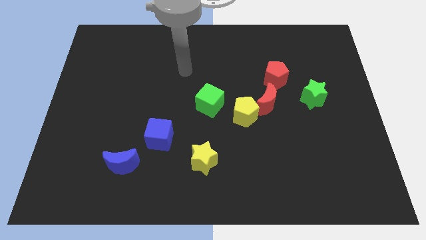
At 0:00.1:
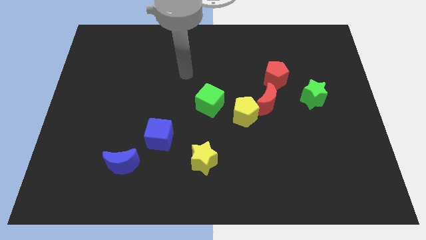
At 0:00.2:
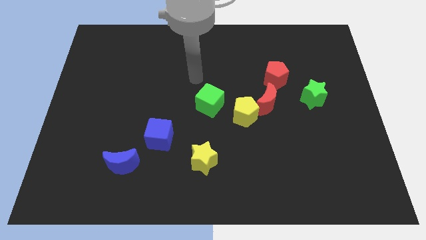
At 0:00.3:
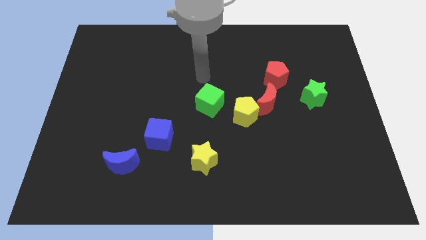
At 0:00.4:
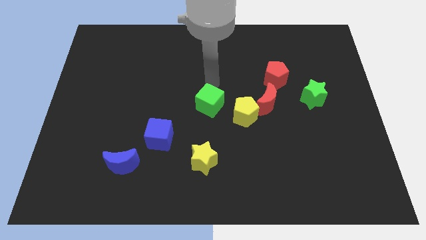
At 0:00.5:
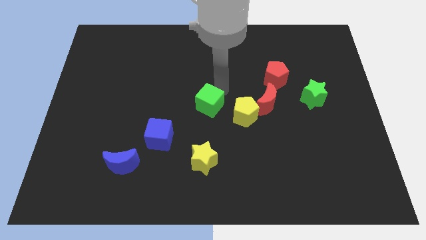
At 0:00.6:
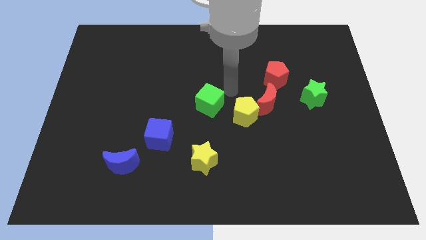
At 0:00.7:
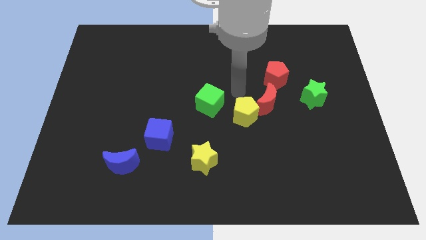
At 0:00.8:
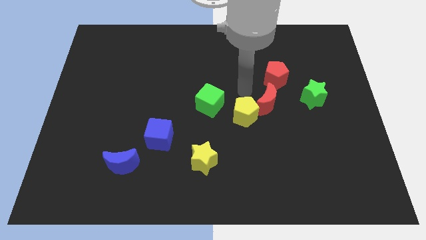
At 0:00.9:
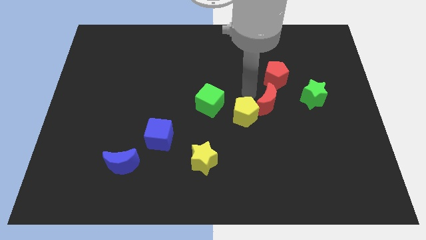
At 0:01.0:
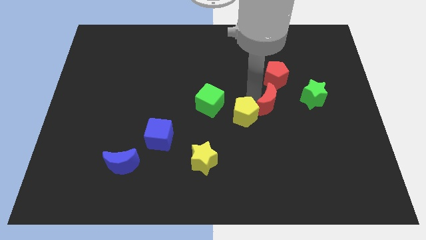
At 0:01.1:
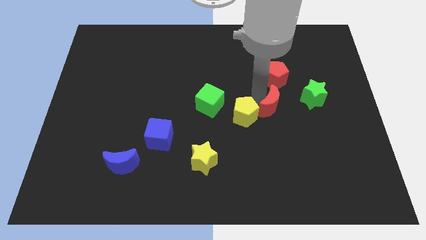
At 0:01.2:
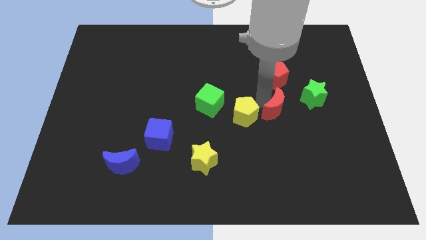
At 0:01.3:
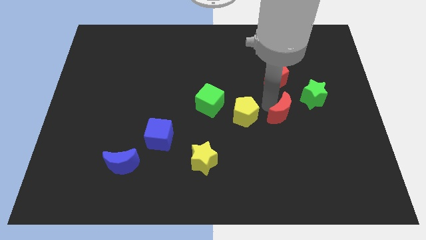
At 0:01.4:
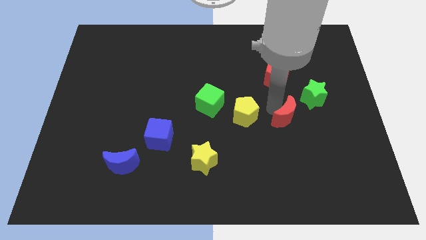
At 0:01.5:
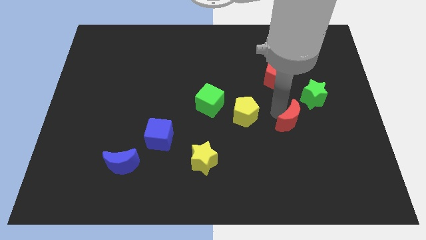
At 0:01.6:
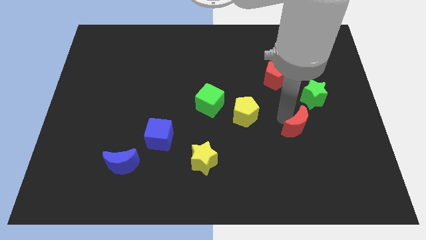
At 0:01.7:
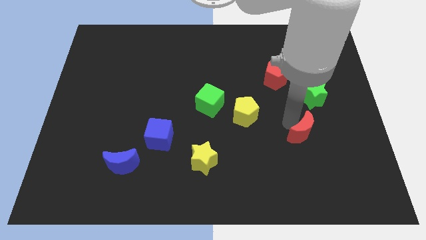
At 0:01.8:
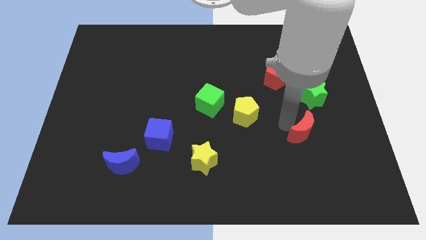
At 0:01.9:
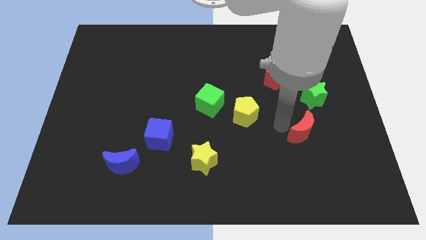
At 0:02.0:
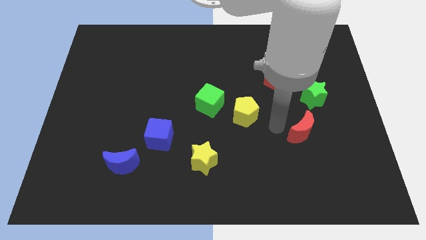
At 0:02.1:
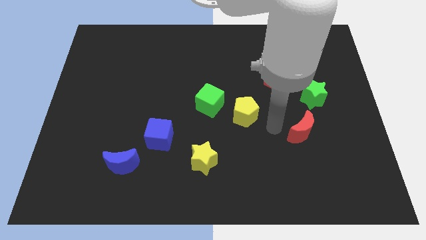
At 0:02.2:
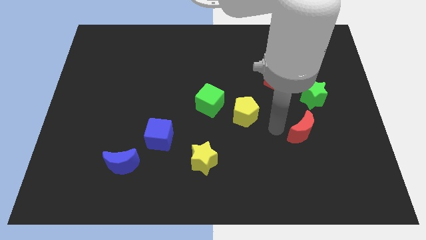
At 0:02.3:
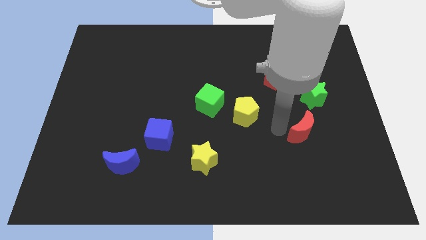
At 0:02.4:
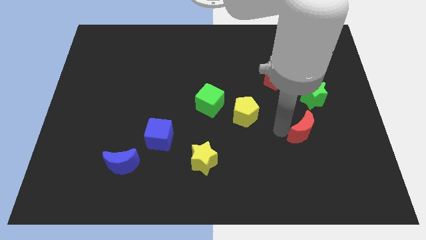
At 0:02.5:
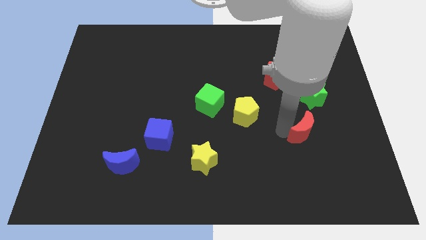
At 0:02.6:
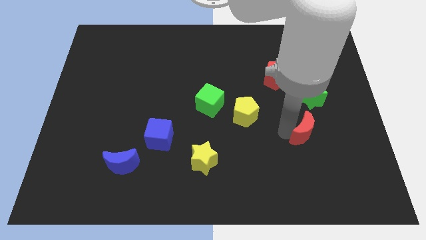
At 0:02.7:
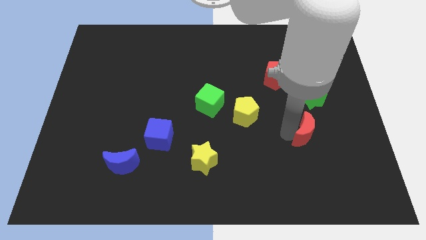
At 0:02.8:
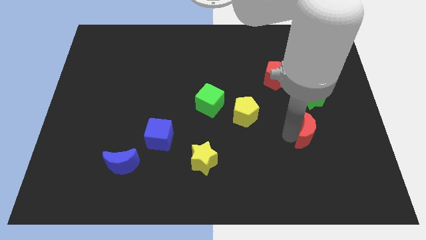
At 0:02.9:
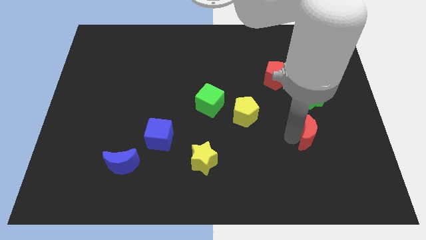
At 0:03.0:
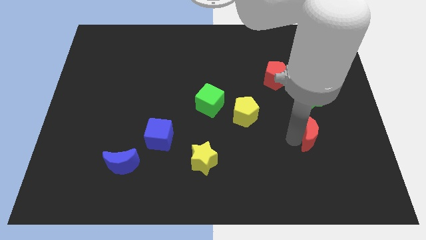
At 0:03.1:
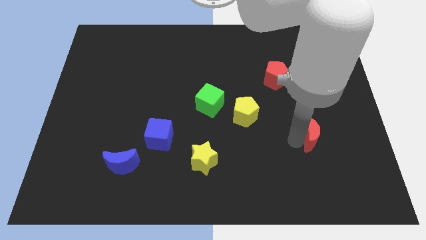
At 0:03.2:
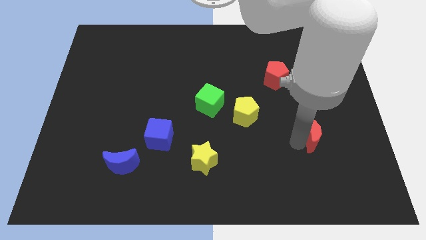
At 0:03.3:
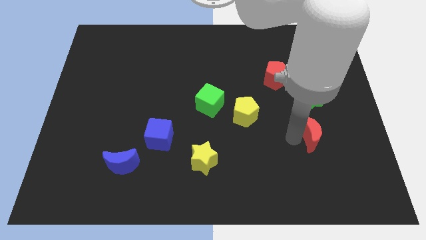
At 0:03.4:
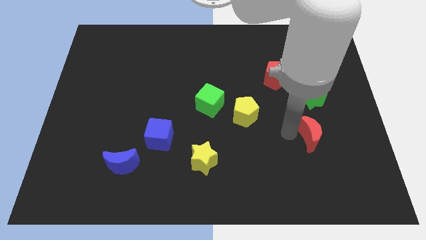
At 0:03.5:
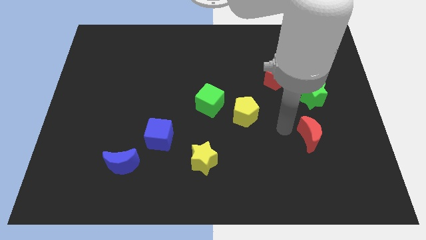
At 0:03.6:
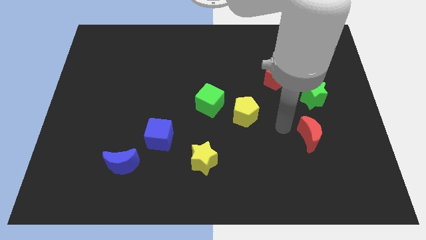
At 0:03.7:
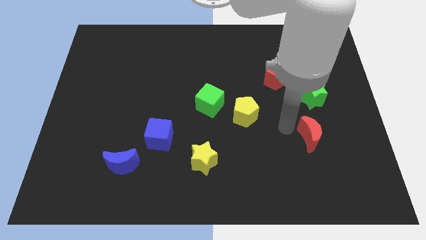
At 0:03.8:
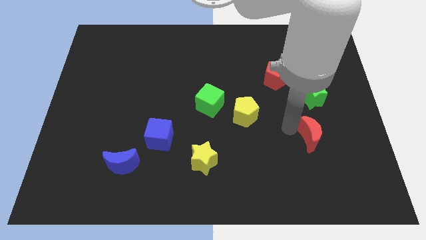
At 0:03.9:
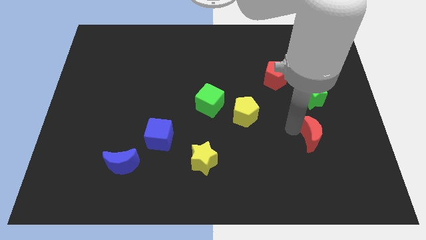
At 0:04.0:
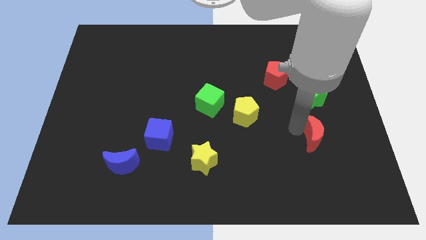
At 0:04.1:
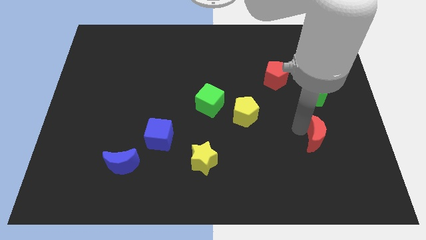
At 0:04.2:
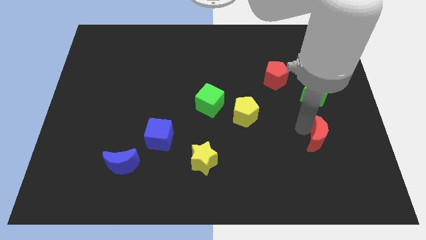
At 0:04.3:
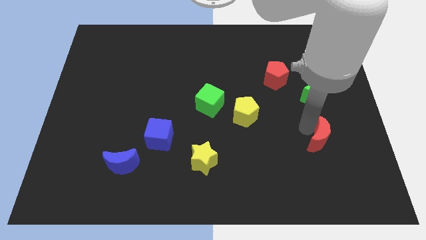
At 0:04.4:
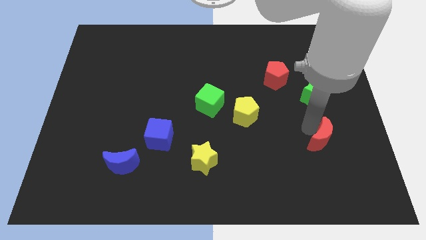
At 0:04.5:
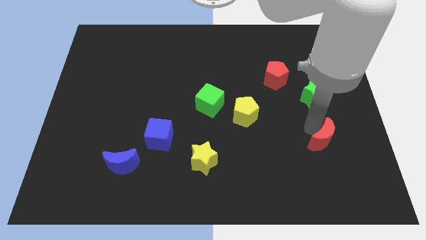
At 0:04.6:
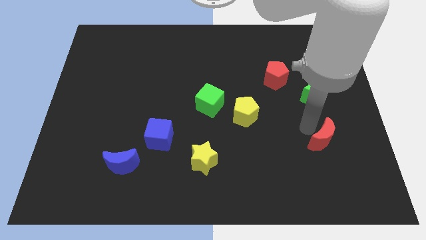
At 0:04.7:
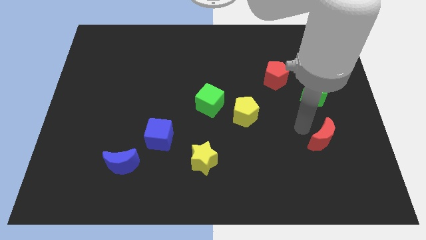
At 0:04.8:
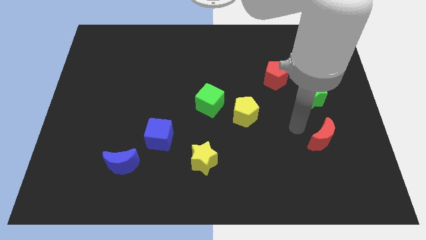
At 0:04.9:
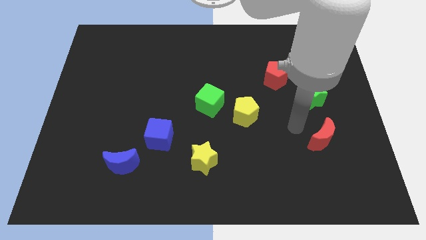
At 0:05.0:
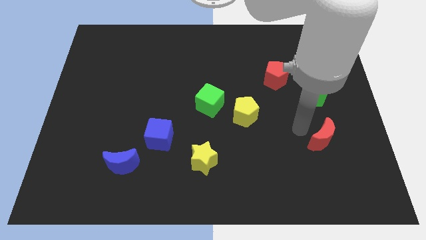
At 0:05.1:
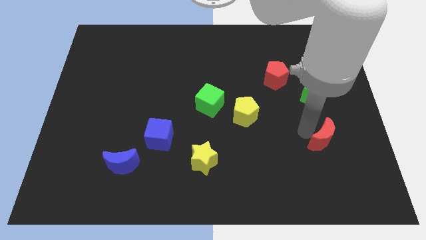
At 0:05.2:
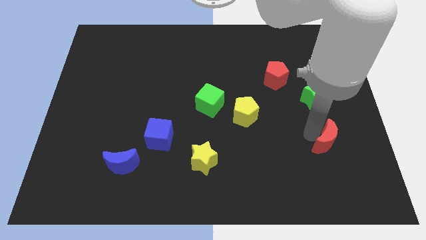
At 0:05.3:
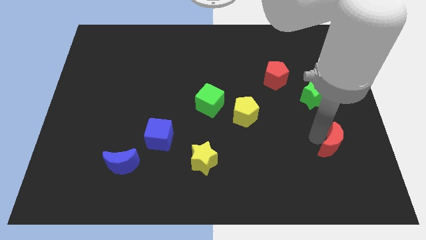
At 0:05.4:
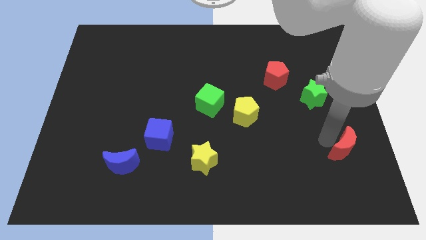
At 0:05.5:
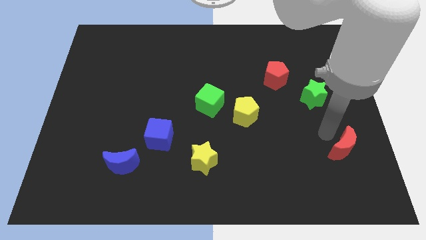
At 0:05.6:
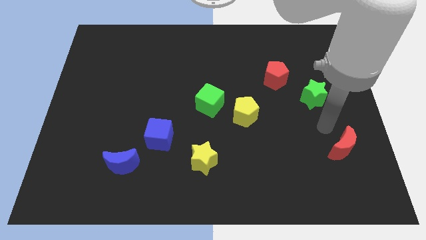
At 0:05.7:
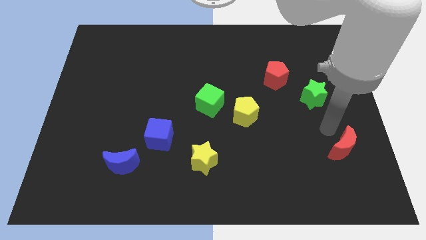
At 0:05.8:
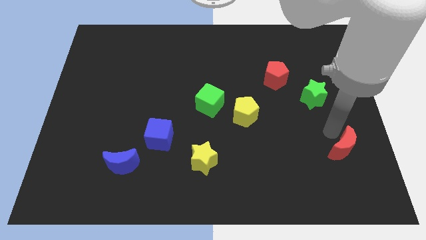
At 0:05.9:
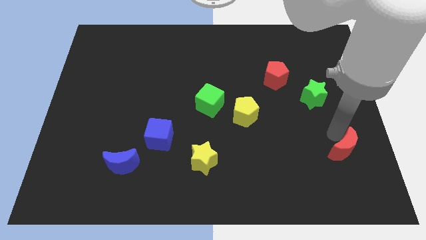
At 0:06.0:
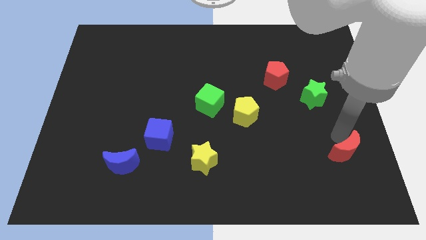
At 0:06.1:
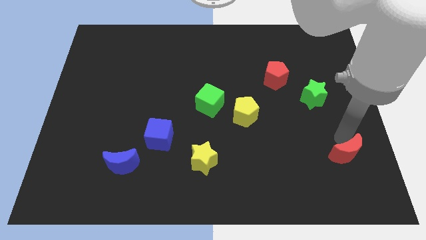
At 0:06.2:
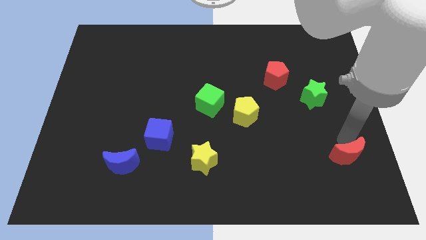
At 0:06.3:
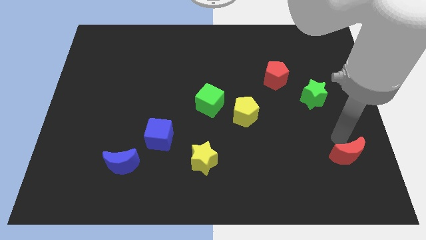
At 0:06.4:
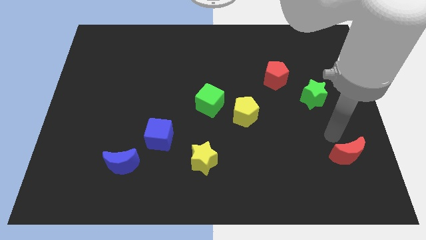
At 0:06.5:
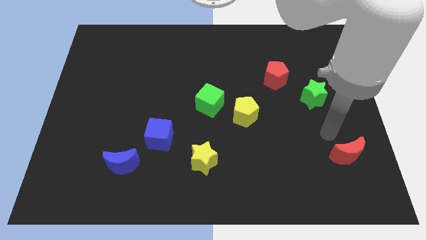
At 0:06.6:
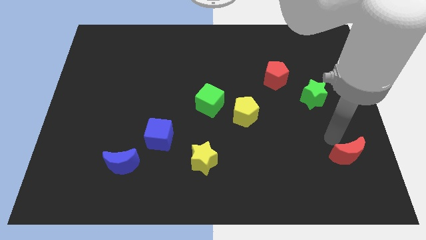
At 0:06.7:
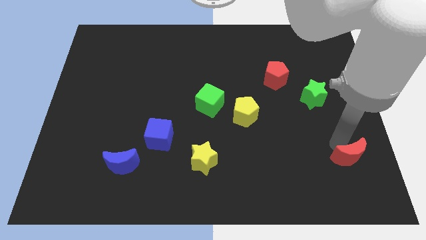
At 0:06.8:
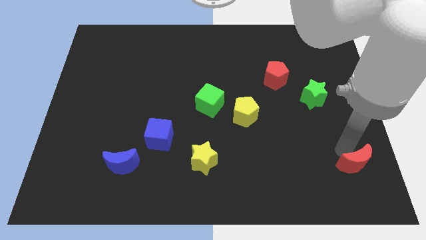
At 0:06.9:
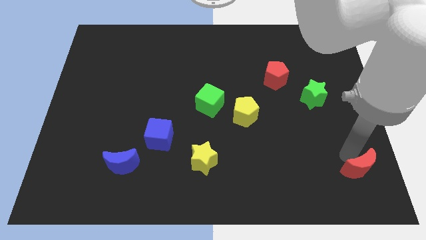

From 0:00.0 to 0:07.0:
move the red moon to the bottom right corner
